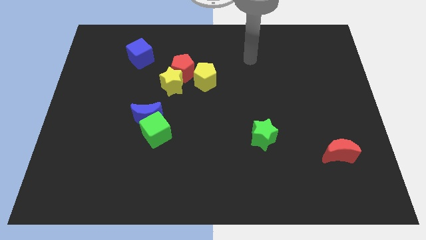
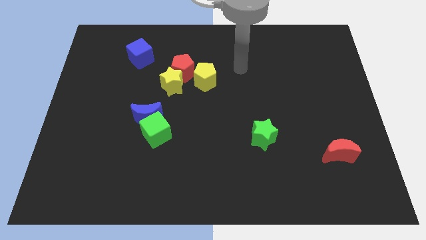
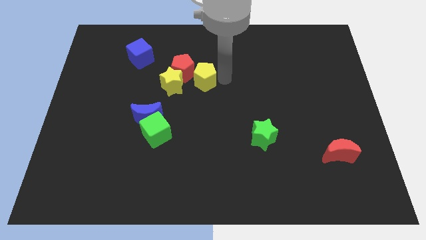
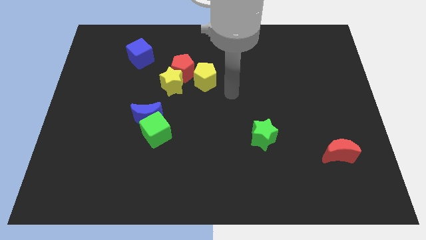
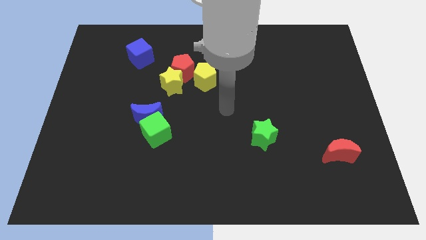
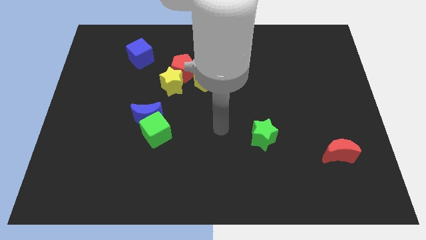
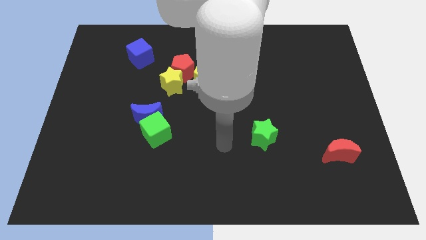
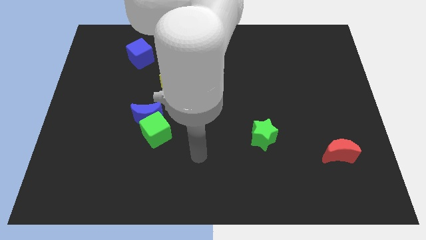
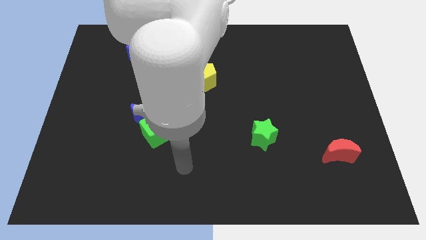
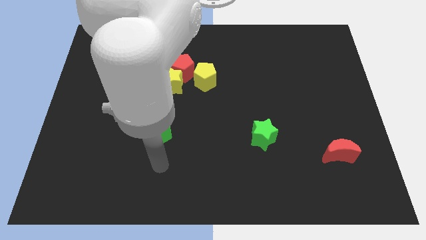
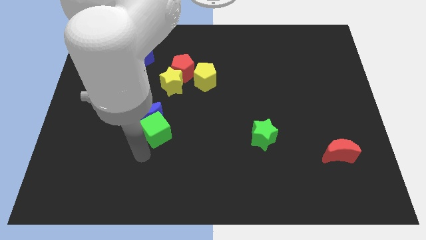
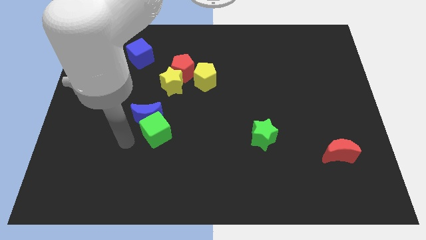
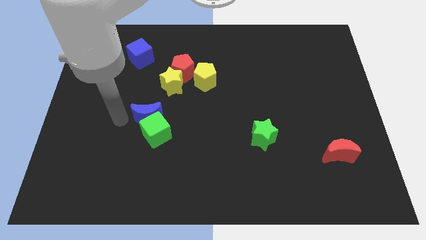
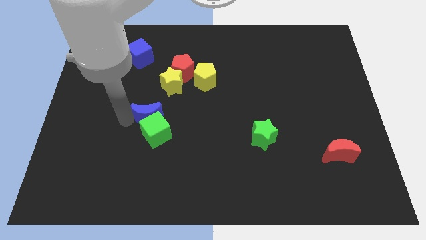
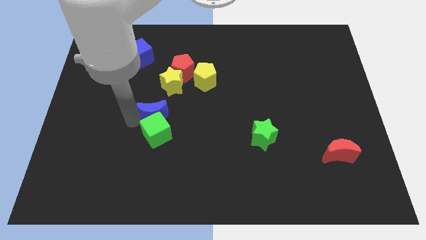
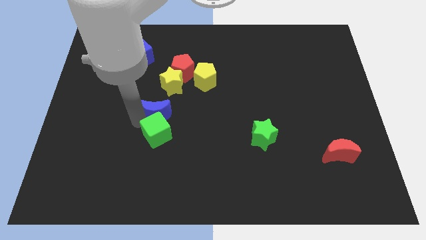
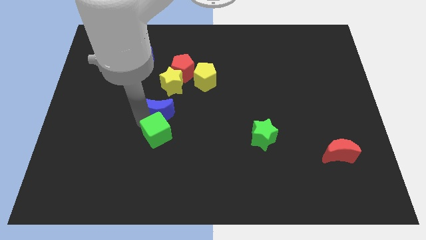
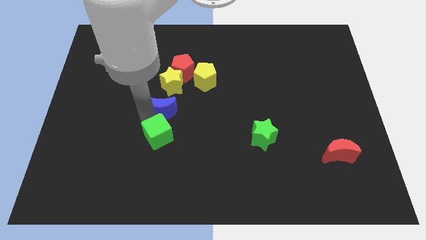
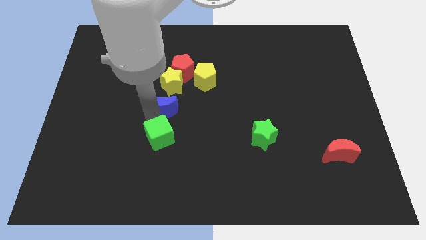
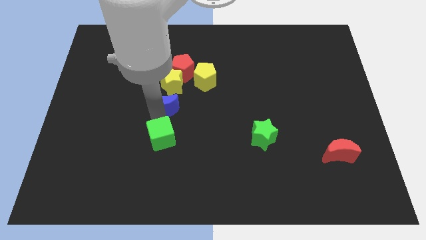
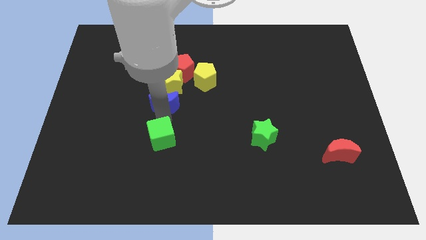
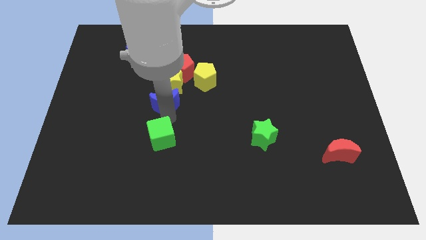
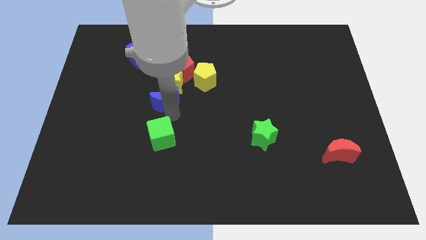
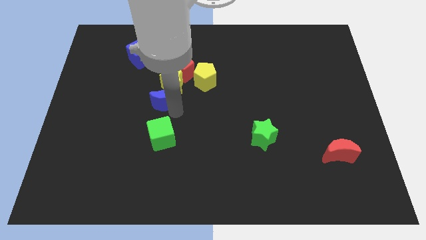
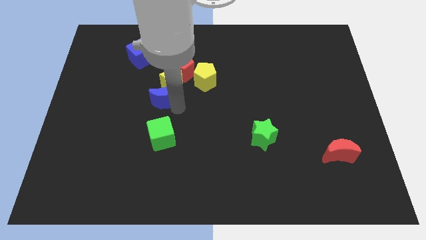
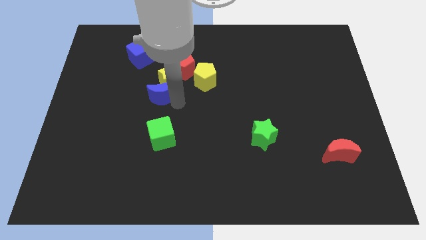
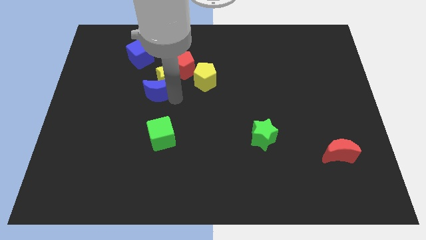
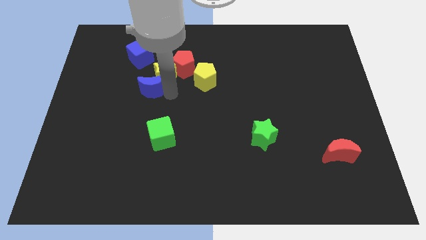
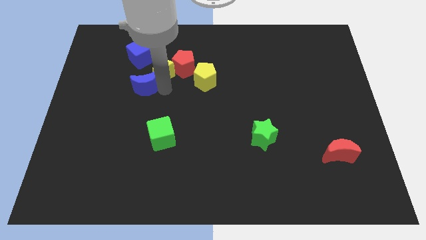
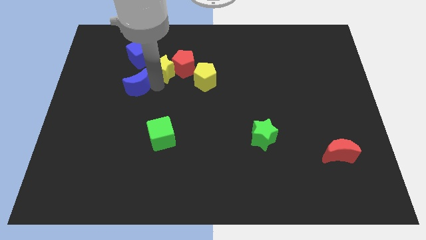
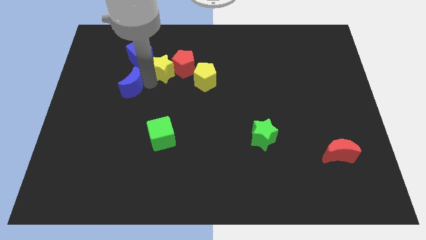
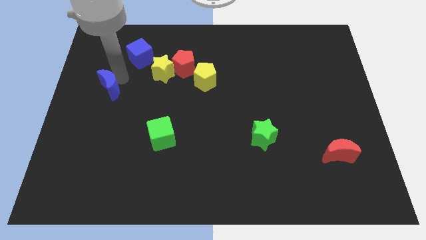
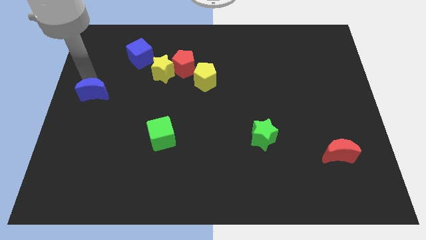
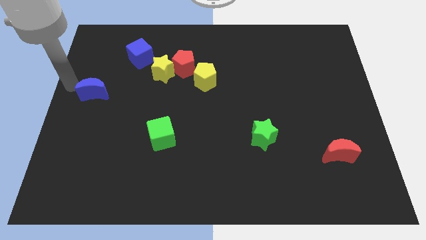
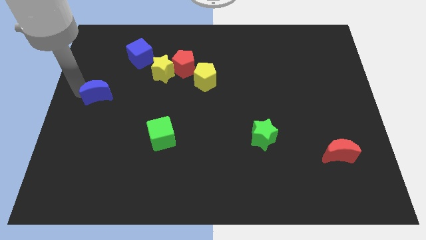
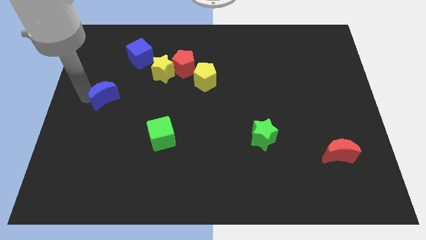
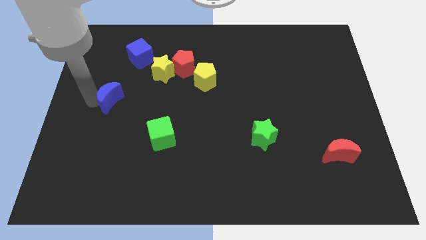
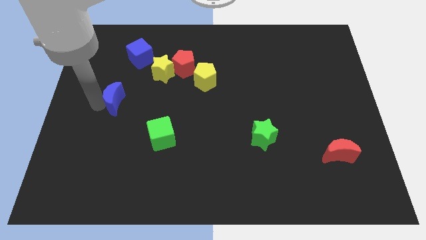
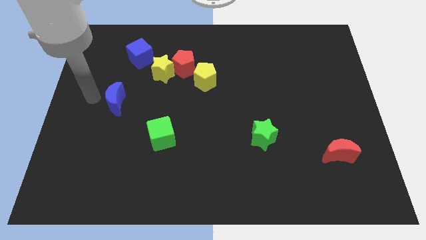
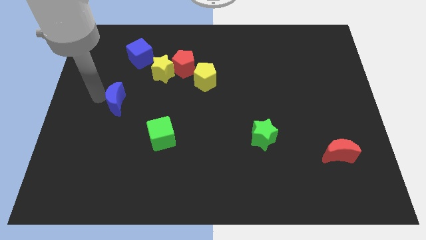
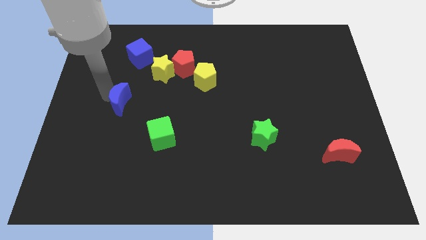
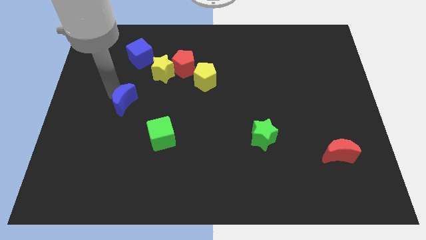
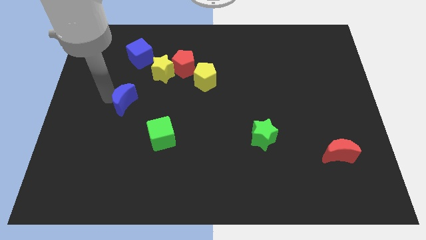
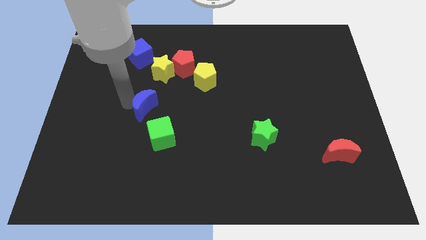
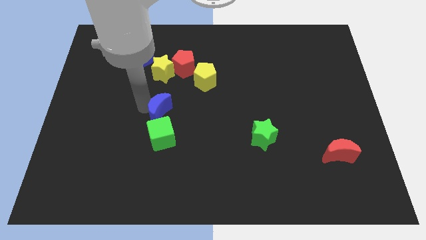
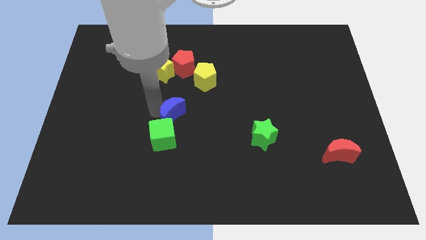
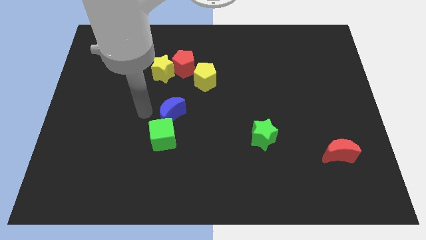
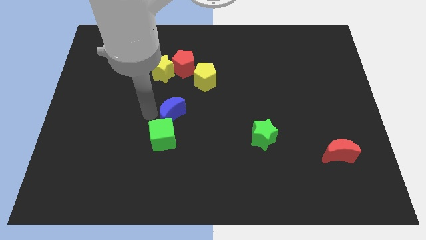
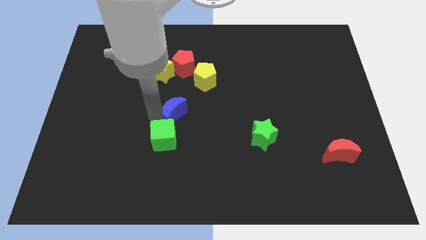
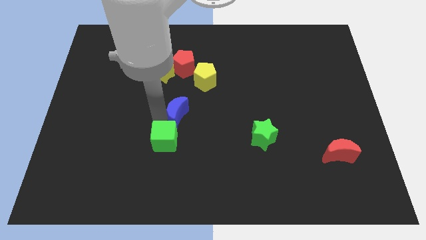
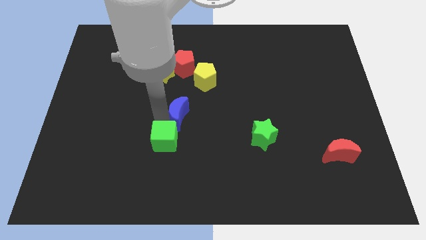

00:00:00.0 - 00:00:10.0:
push the blue moon to the right a little

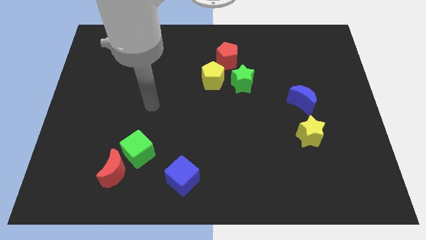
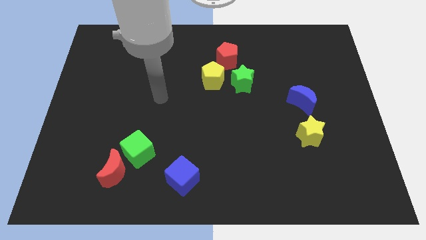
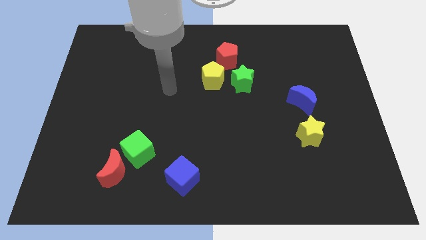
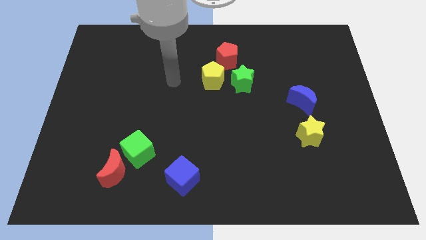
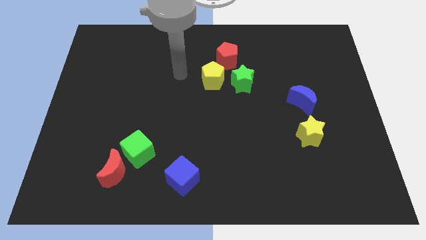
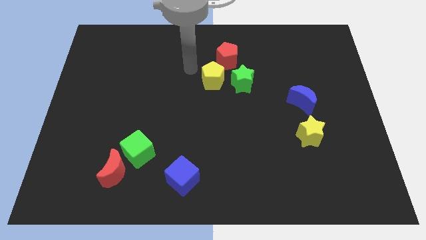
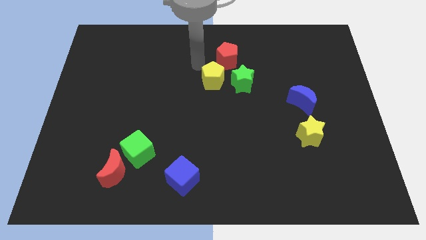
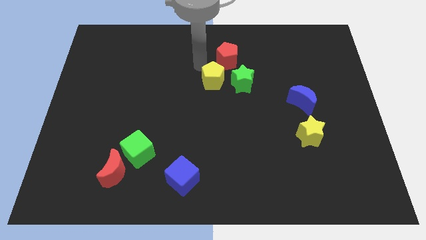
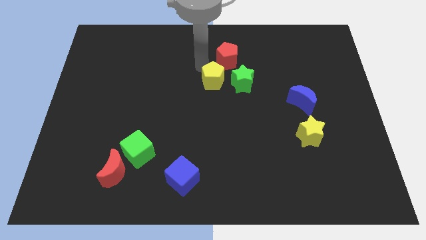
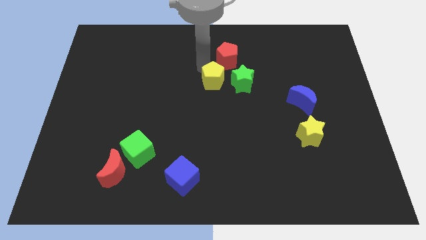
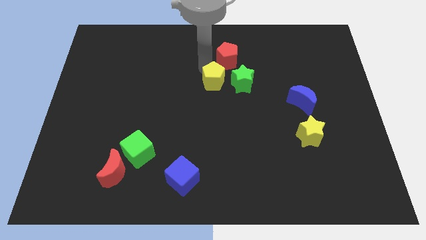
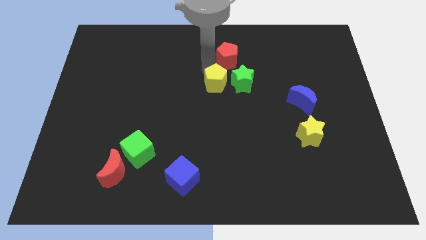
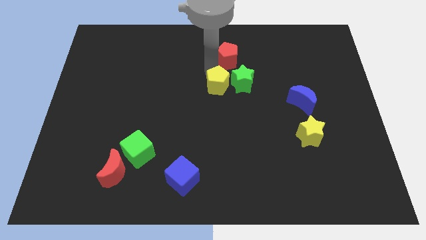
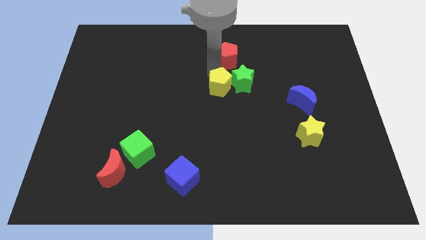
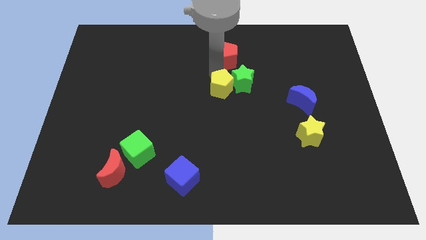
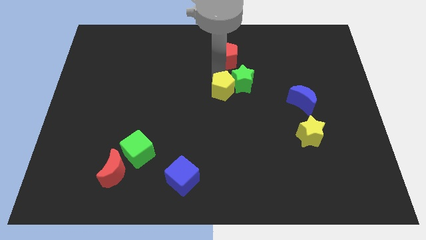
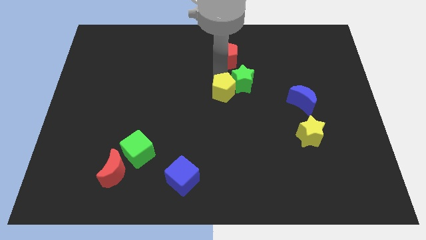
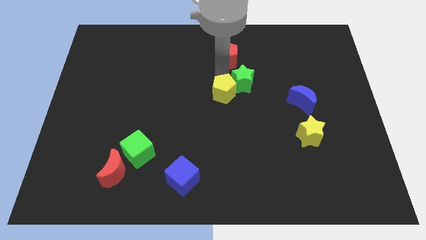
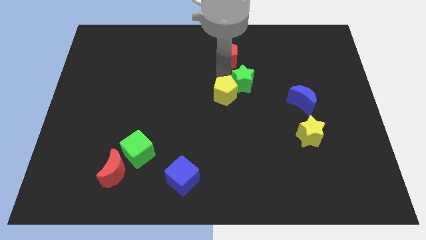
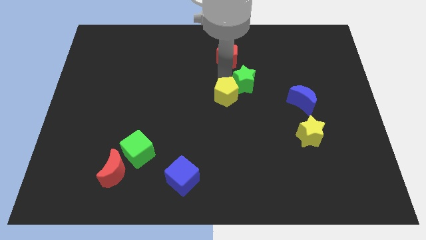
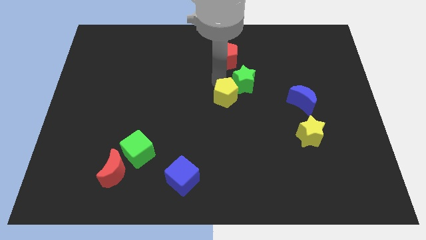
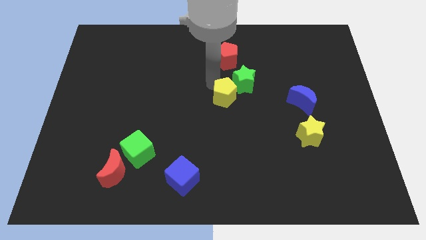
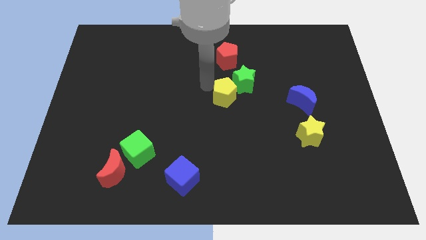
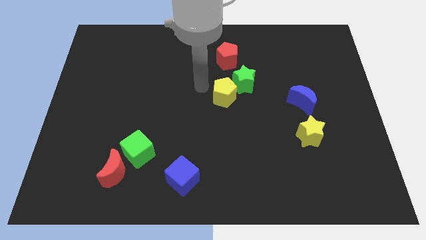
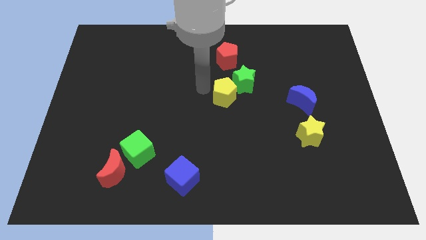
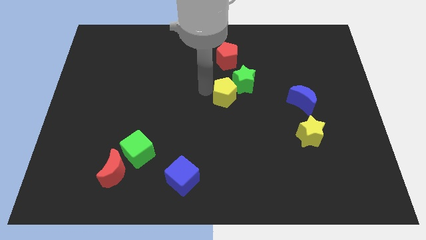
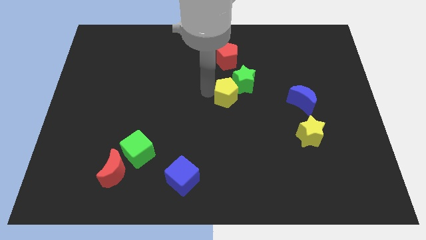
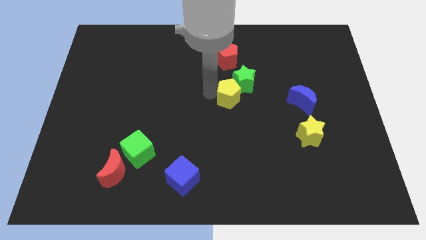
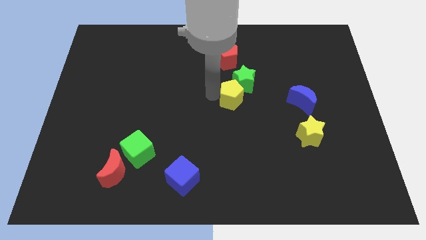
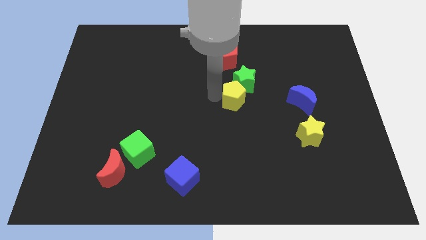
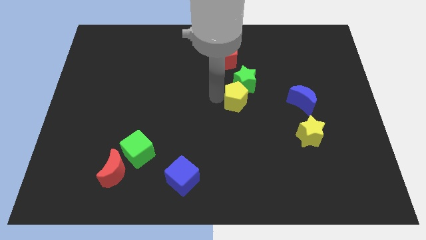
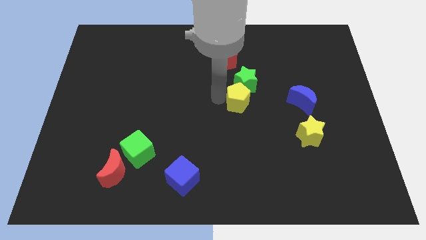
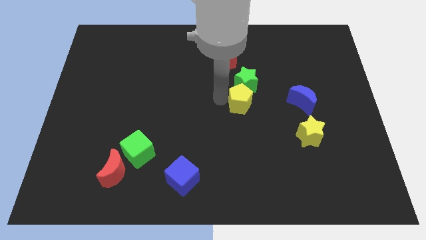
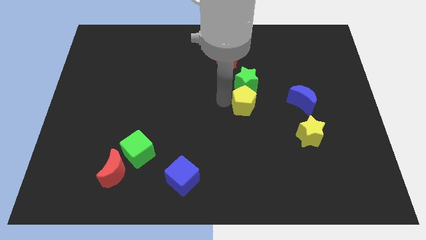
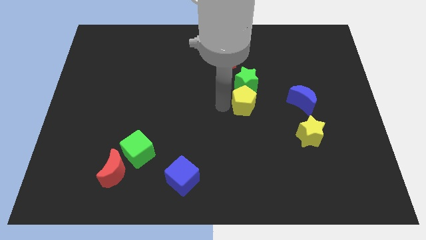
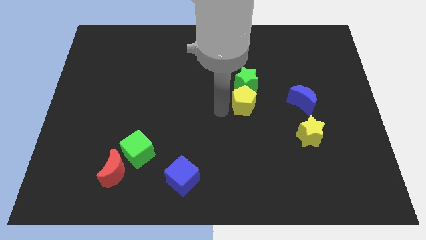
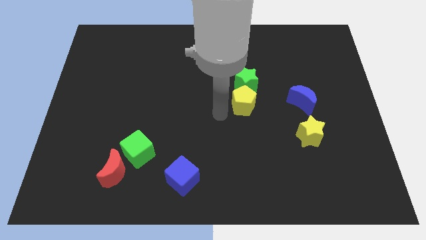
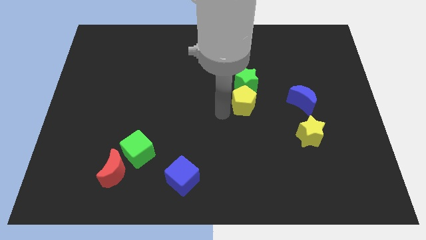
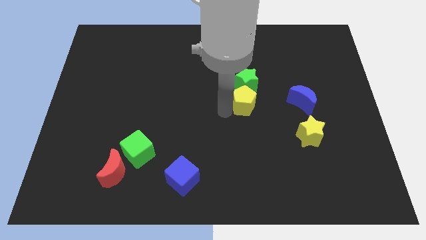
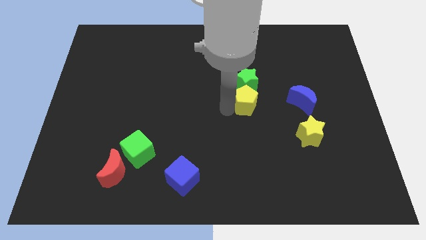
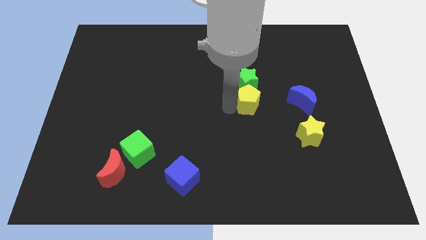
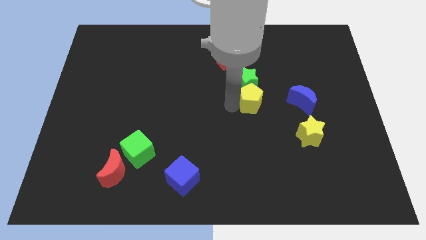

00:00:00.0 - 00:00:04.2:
slide the yellow pentagon a bit to the right
